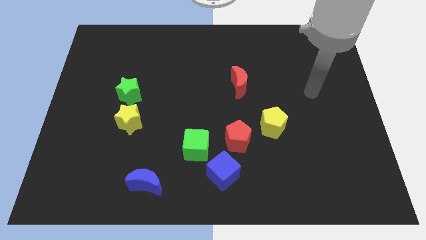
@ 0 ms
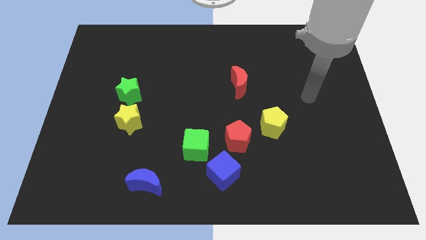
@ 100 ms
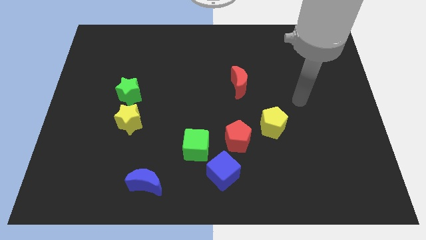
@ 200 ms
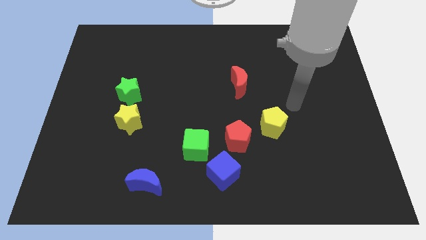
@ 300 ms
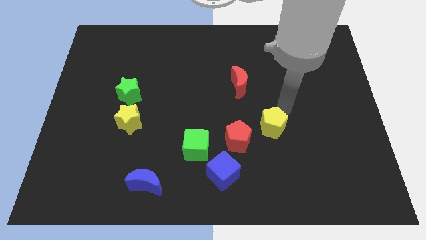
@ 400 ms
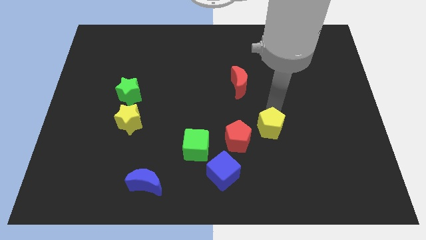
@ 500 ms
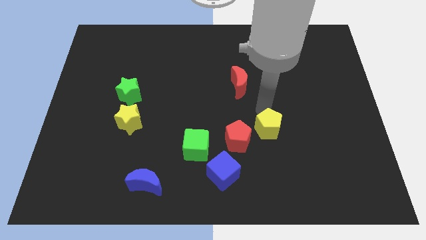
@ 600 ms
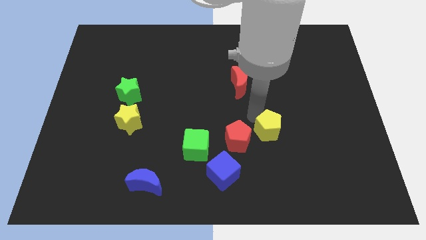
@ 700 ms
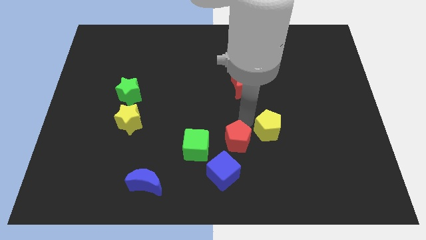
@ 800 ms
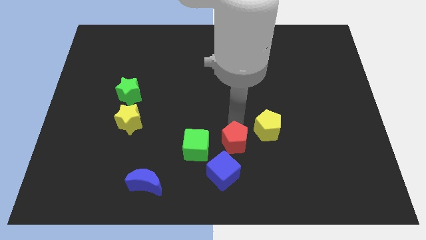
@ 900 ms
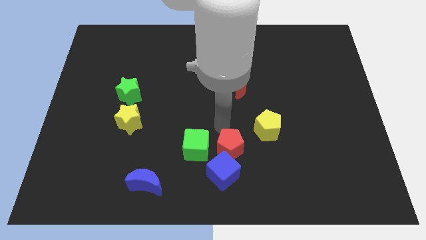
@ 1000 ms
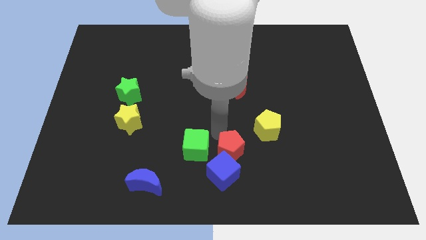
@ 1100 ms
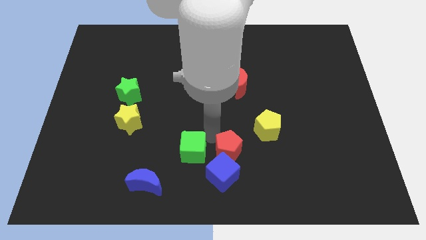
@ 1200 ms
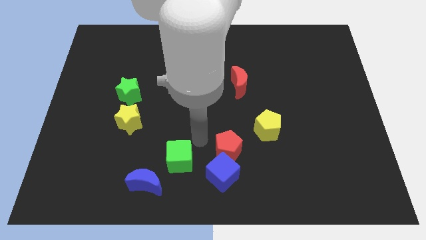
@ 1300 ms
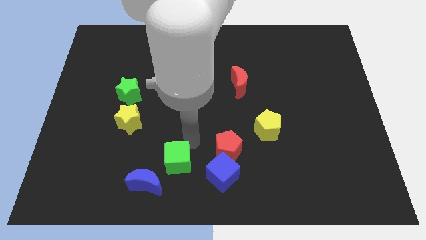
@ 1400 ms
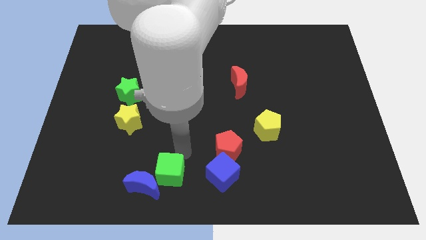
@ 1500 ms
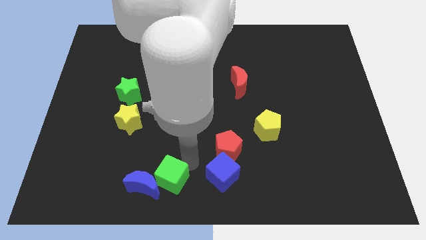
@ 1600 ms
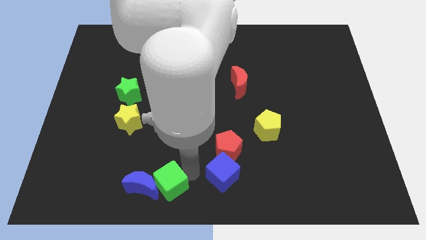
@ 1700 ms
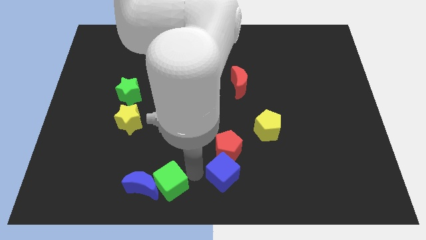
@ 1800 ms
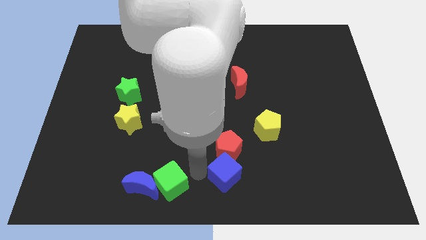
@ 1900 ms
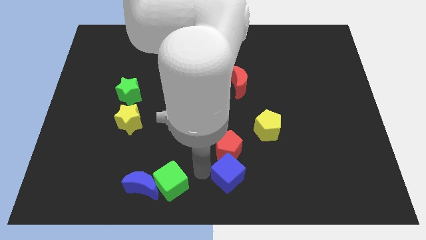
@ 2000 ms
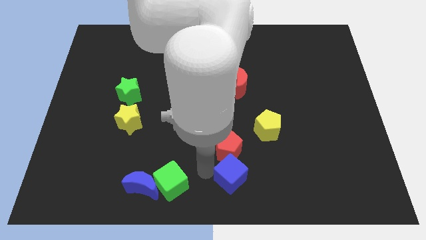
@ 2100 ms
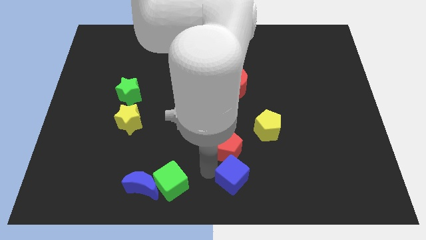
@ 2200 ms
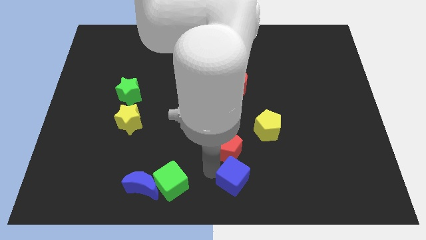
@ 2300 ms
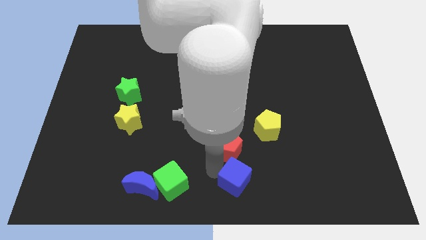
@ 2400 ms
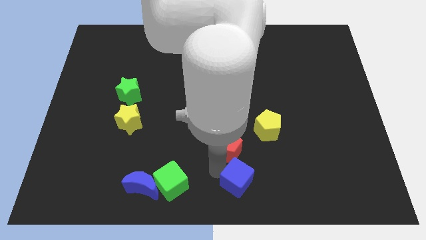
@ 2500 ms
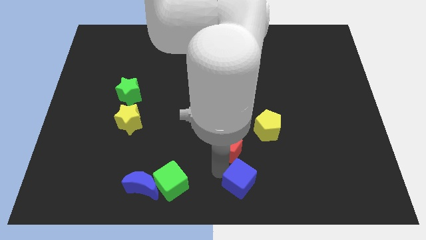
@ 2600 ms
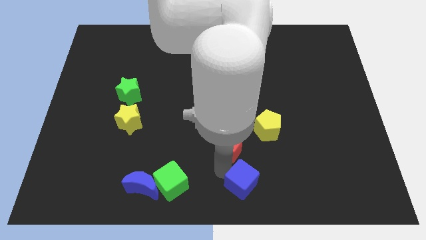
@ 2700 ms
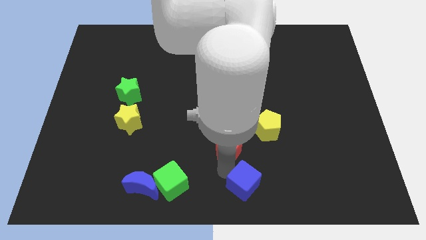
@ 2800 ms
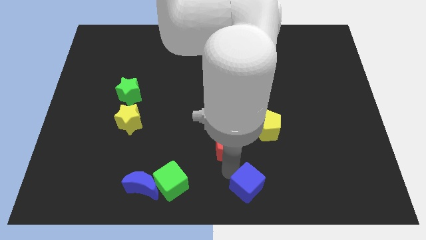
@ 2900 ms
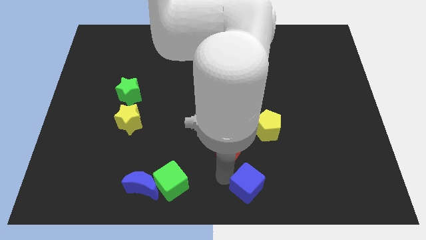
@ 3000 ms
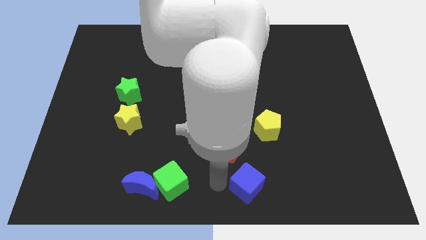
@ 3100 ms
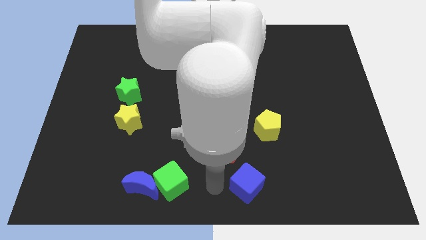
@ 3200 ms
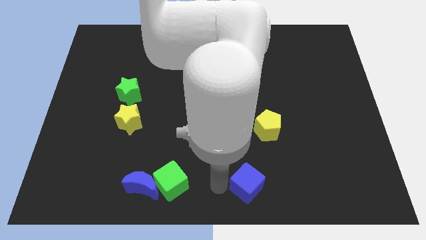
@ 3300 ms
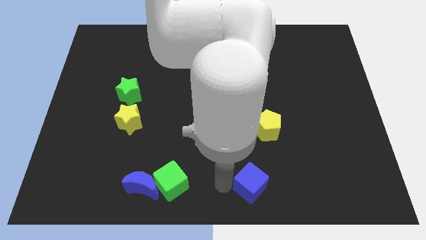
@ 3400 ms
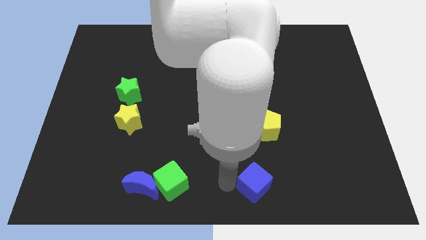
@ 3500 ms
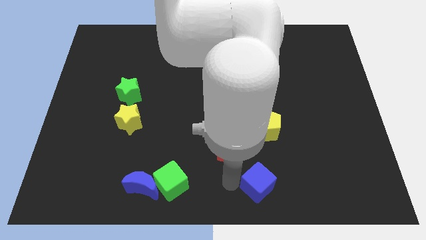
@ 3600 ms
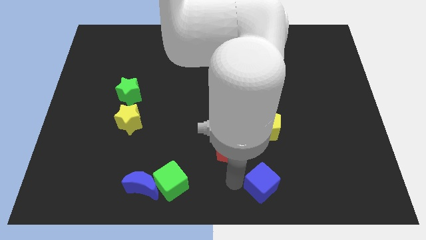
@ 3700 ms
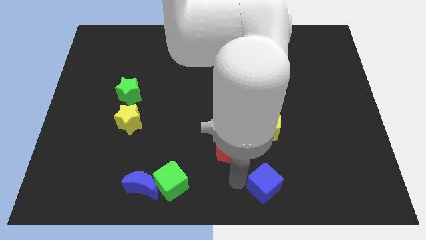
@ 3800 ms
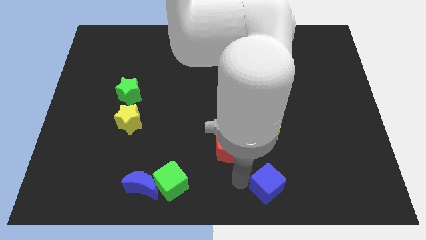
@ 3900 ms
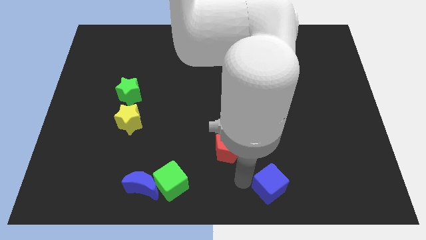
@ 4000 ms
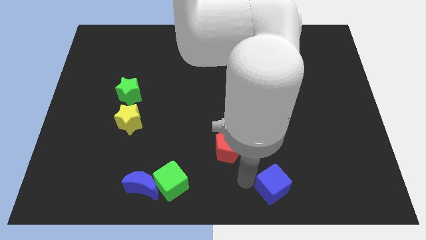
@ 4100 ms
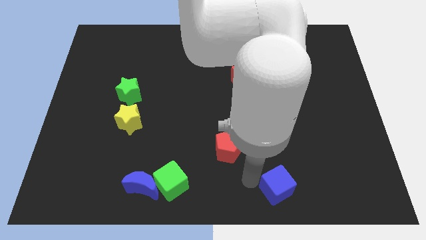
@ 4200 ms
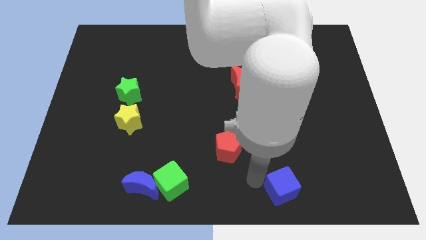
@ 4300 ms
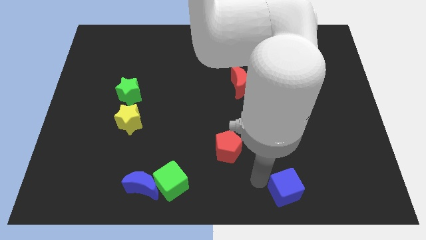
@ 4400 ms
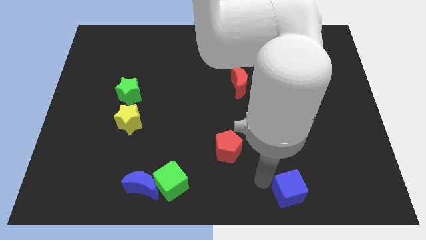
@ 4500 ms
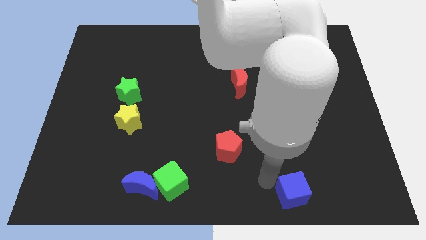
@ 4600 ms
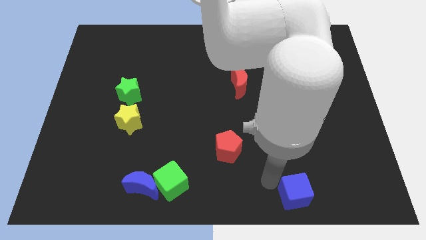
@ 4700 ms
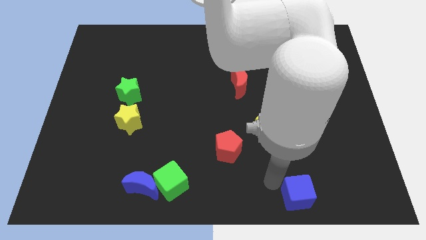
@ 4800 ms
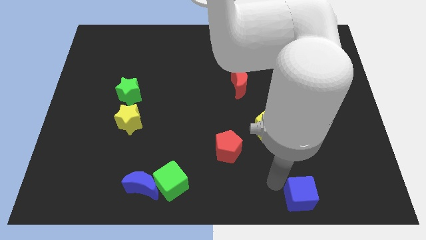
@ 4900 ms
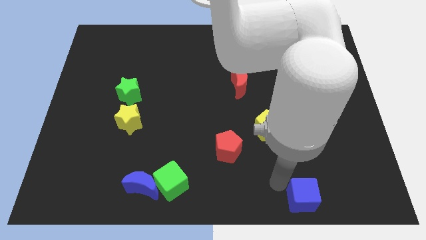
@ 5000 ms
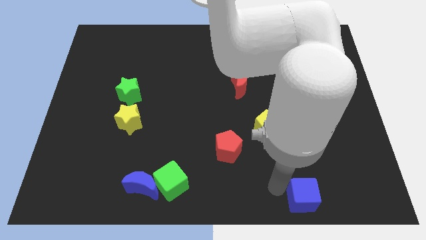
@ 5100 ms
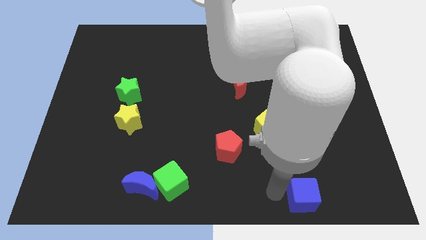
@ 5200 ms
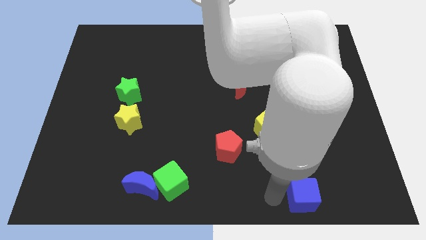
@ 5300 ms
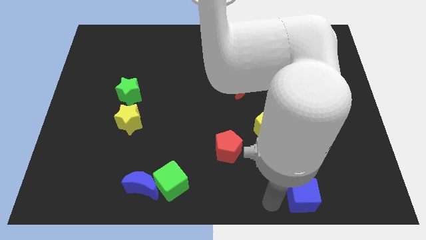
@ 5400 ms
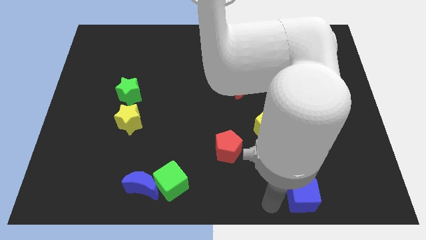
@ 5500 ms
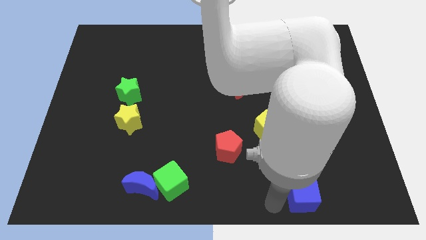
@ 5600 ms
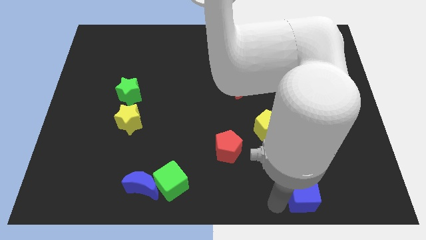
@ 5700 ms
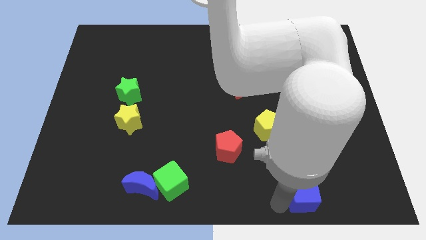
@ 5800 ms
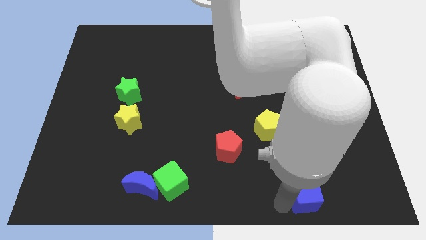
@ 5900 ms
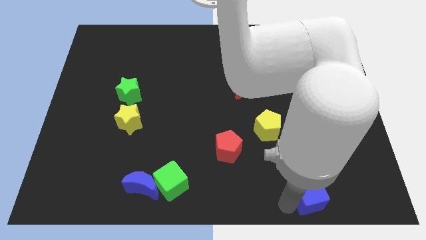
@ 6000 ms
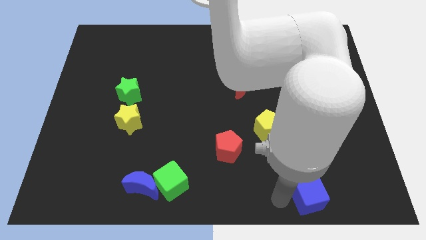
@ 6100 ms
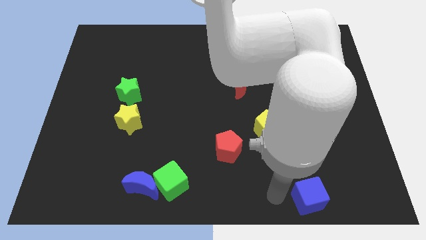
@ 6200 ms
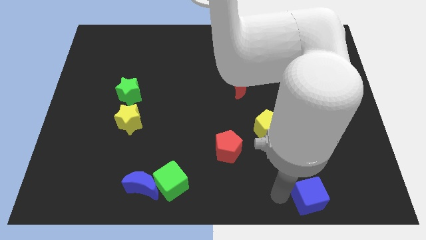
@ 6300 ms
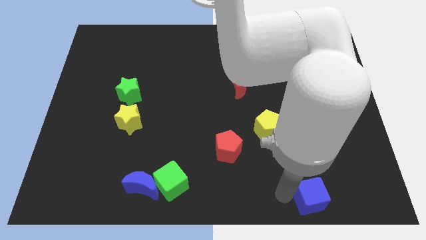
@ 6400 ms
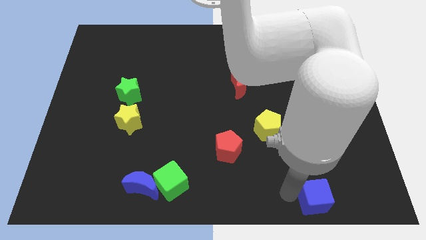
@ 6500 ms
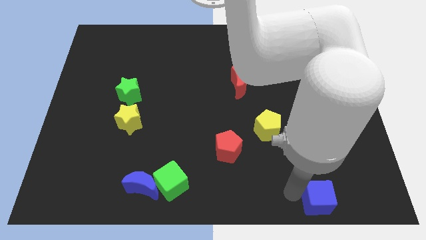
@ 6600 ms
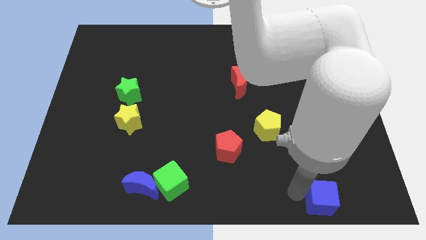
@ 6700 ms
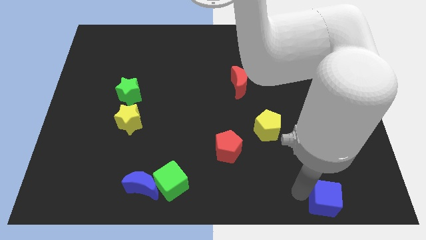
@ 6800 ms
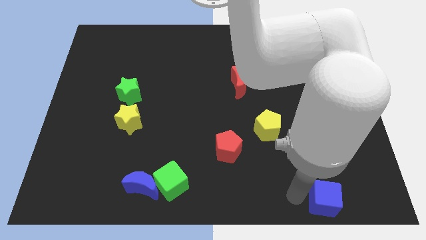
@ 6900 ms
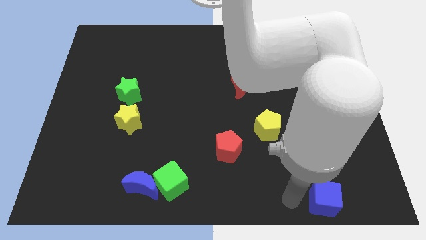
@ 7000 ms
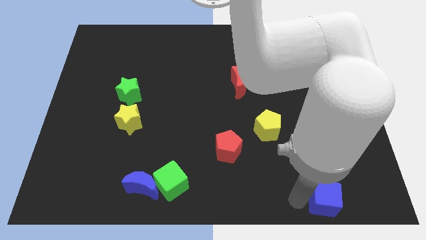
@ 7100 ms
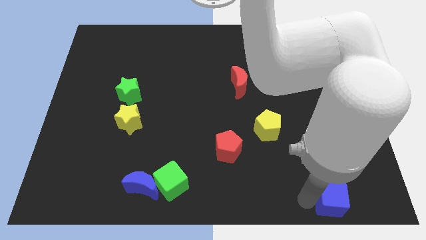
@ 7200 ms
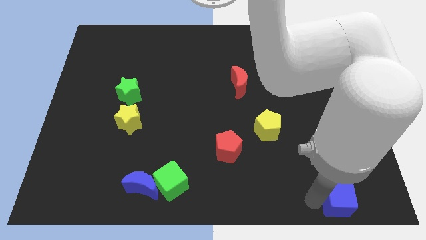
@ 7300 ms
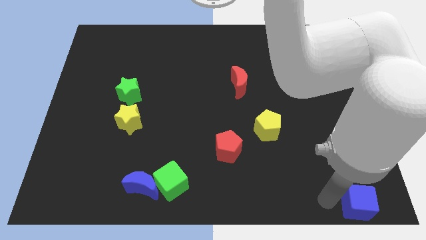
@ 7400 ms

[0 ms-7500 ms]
slide the blue cube to the bottom right
